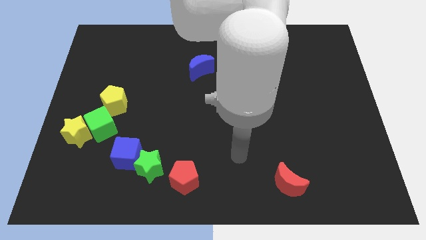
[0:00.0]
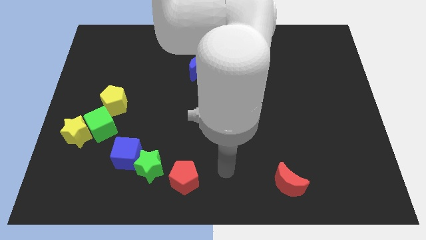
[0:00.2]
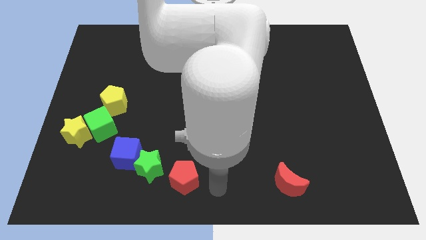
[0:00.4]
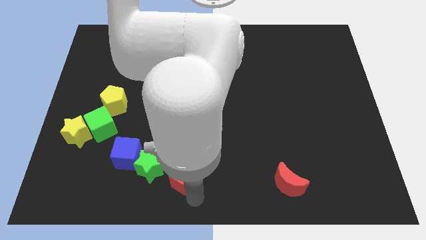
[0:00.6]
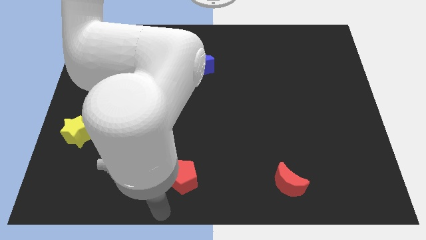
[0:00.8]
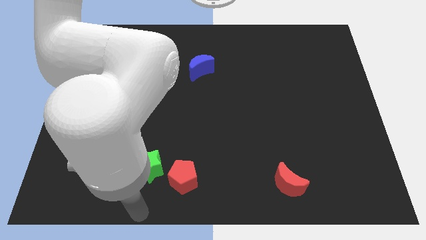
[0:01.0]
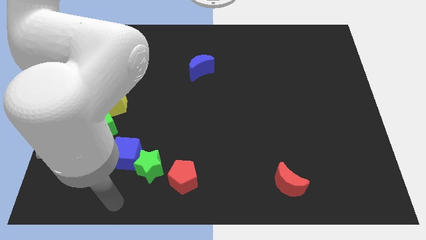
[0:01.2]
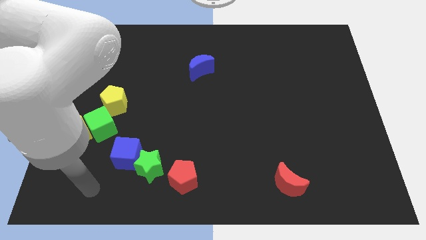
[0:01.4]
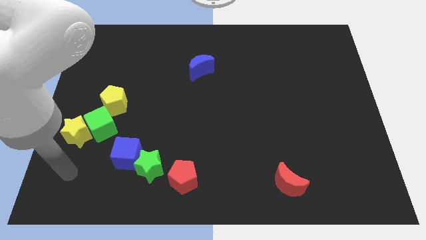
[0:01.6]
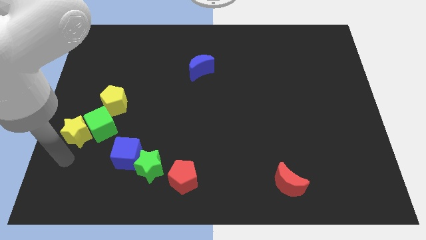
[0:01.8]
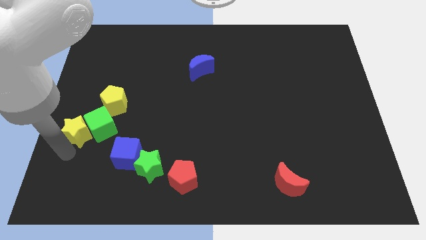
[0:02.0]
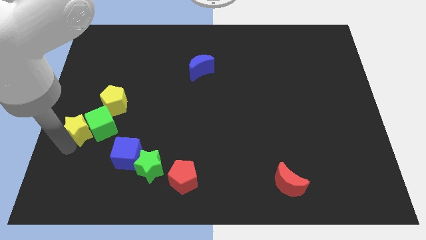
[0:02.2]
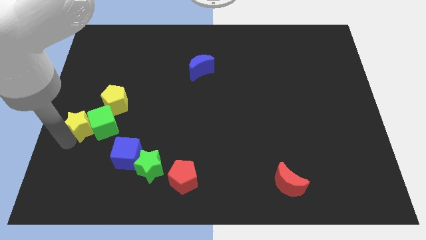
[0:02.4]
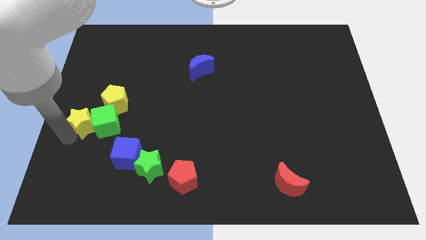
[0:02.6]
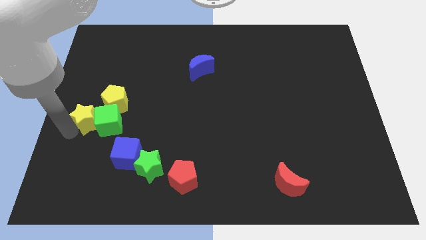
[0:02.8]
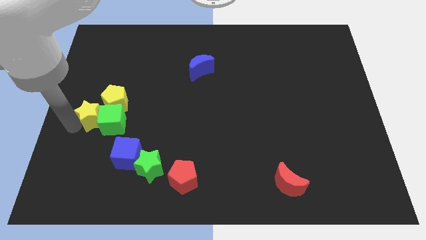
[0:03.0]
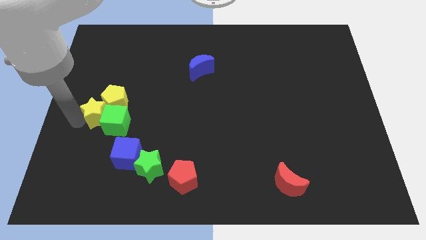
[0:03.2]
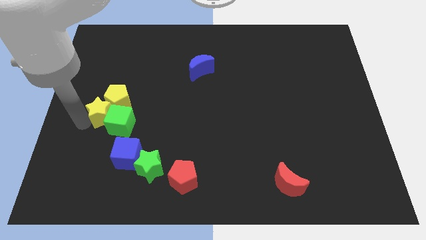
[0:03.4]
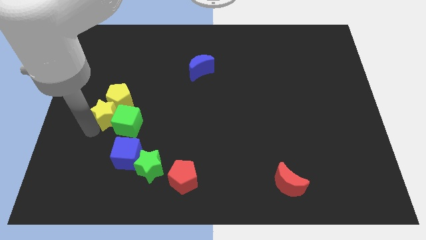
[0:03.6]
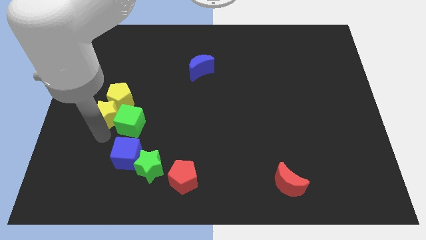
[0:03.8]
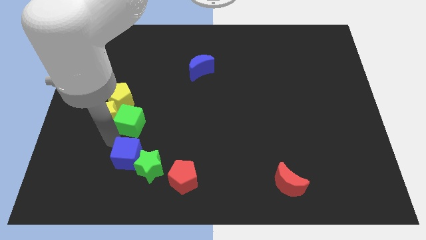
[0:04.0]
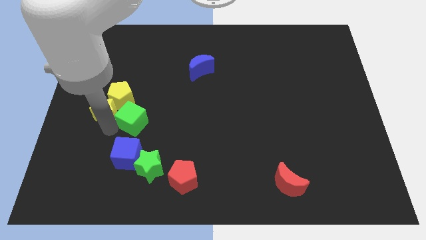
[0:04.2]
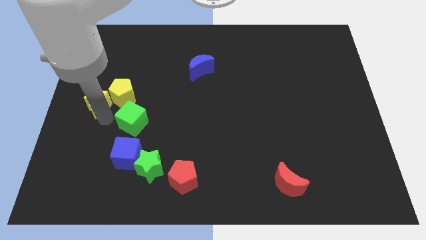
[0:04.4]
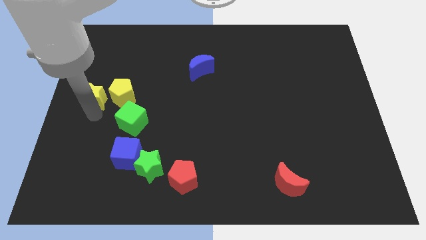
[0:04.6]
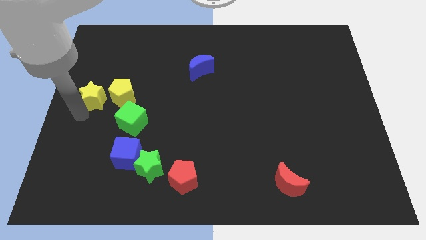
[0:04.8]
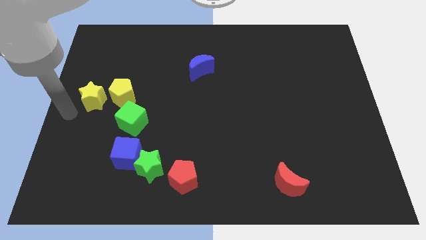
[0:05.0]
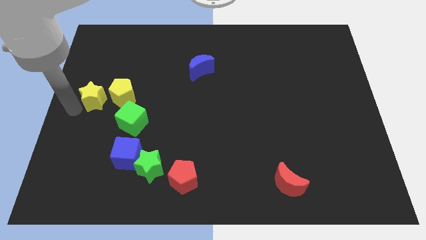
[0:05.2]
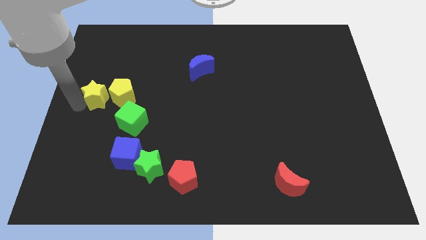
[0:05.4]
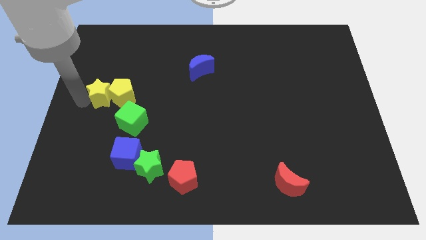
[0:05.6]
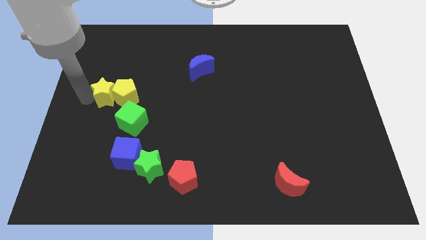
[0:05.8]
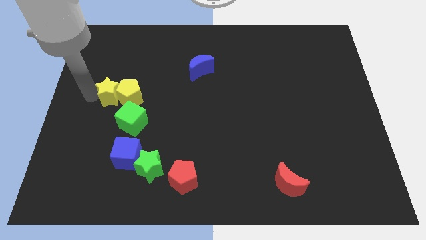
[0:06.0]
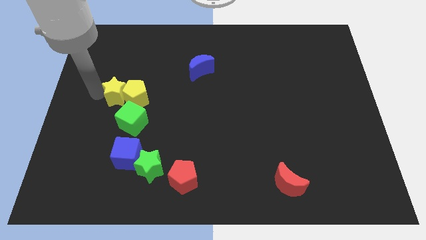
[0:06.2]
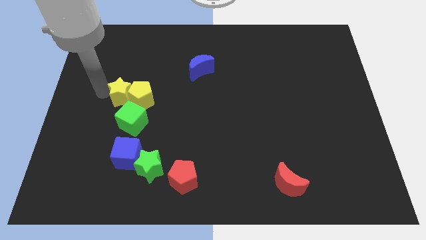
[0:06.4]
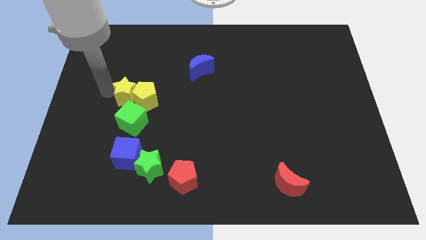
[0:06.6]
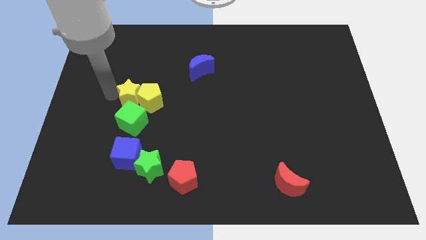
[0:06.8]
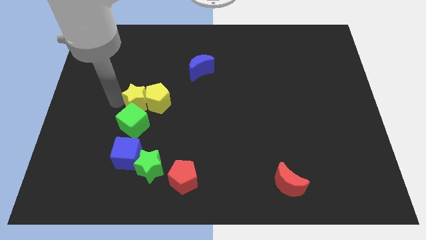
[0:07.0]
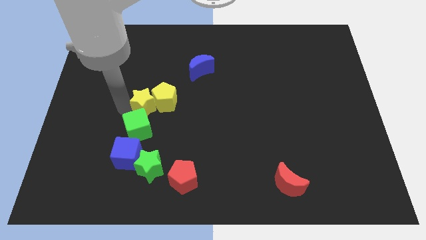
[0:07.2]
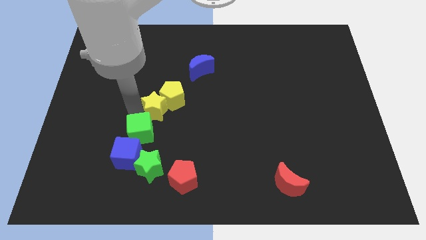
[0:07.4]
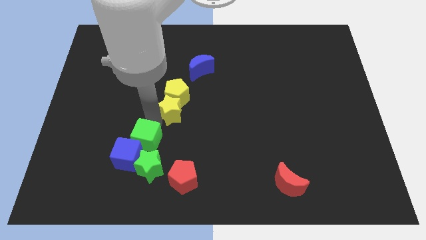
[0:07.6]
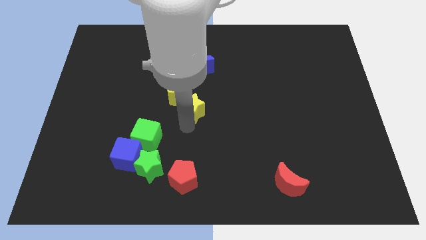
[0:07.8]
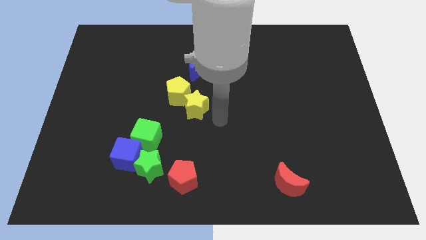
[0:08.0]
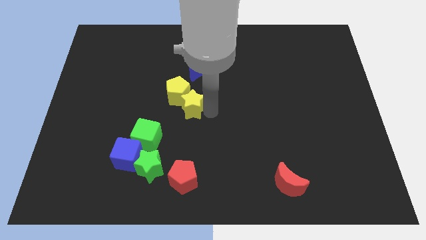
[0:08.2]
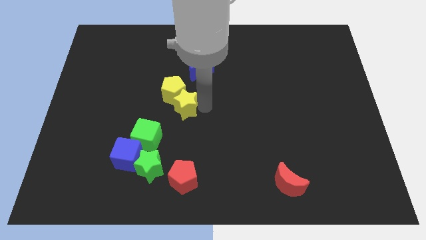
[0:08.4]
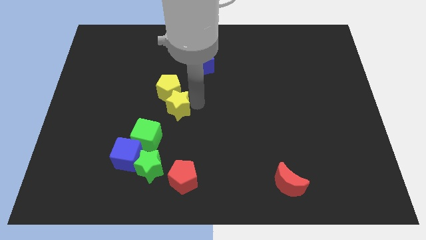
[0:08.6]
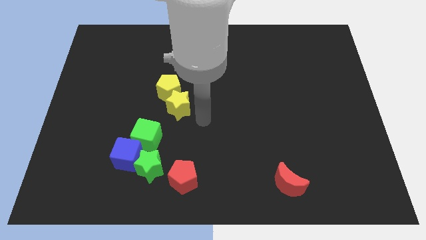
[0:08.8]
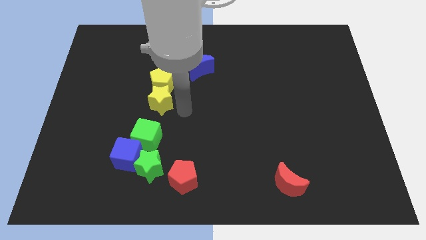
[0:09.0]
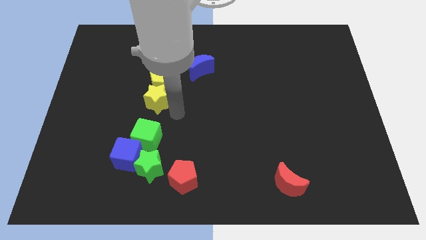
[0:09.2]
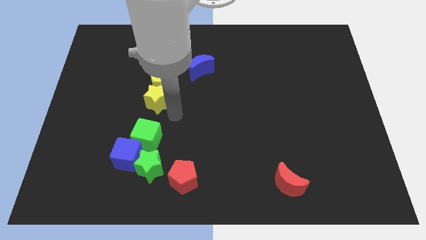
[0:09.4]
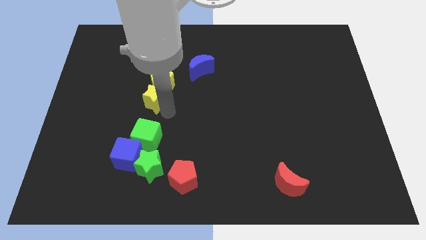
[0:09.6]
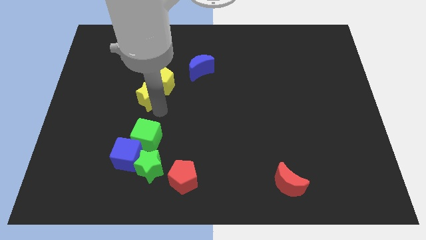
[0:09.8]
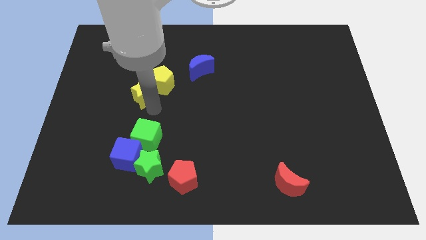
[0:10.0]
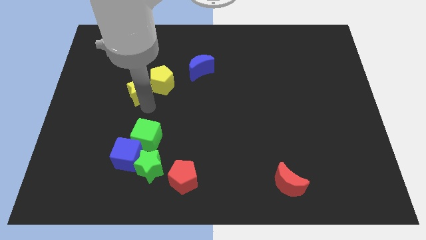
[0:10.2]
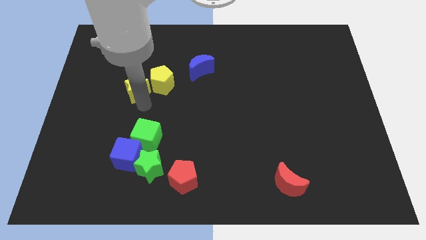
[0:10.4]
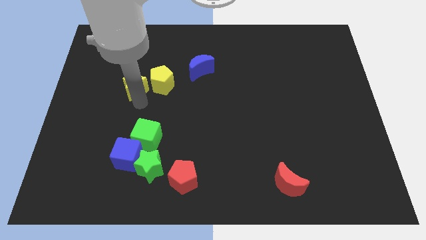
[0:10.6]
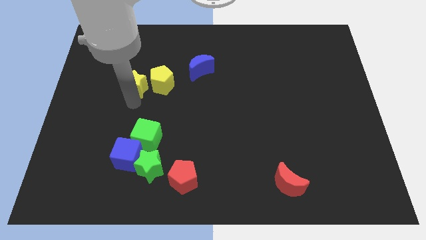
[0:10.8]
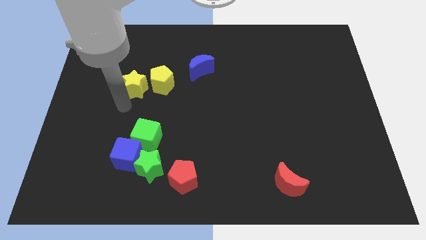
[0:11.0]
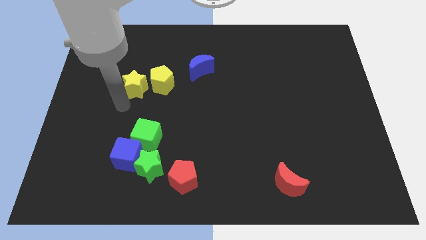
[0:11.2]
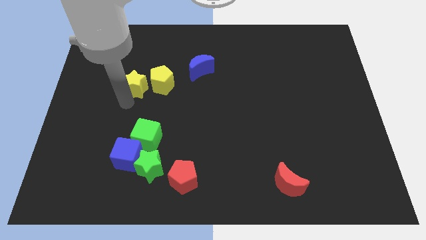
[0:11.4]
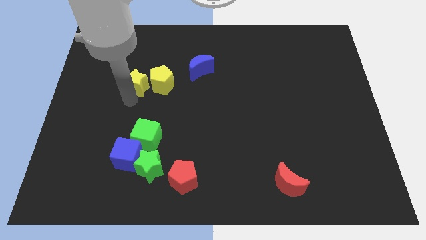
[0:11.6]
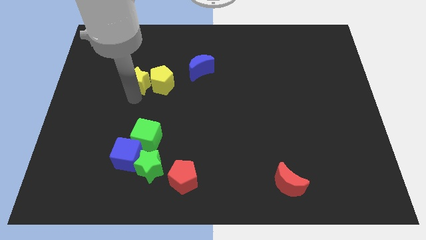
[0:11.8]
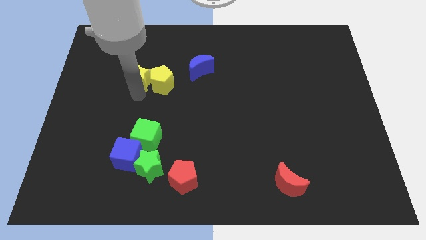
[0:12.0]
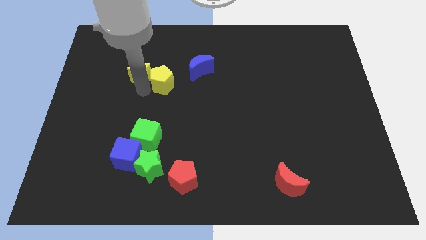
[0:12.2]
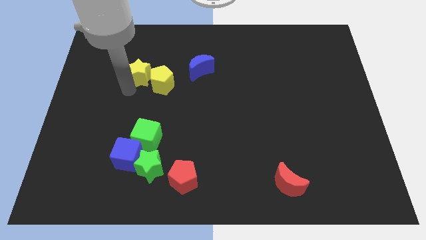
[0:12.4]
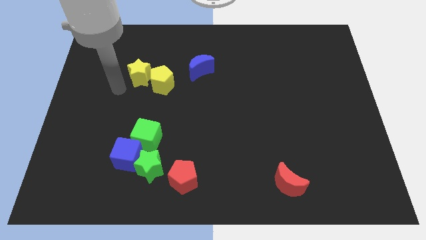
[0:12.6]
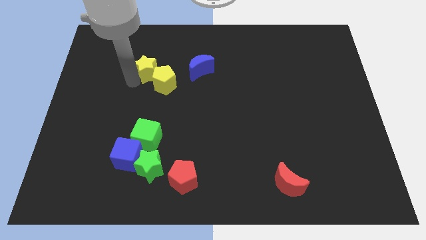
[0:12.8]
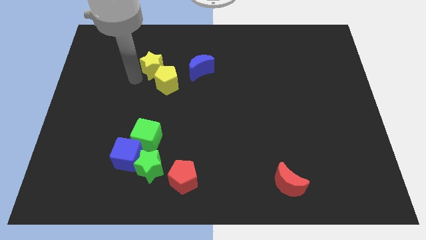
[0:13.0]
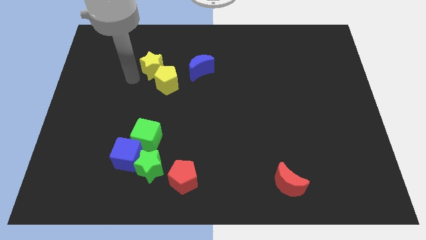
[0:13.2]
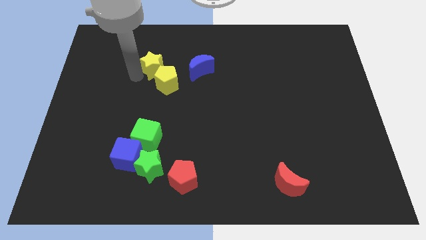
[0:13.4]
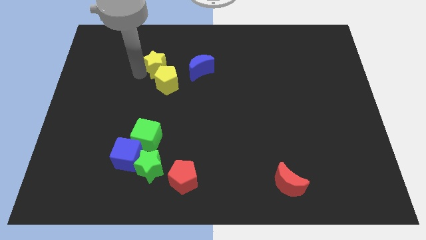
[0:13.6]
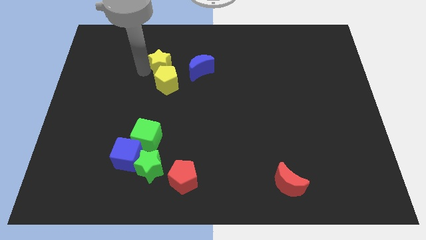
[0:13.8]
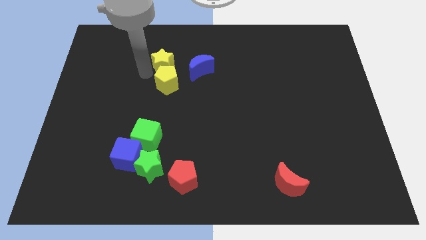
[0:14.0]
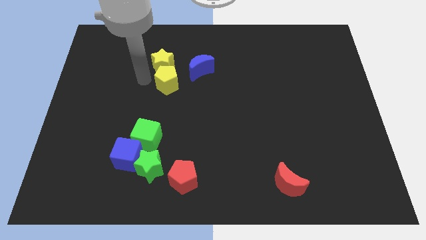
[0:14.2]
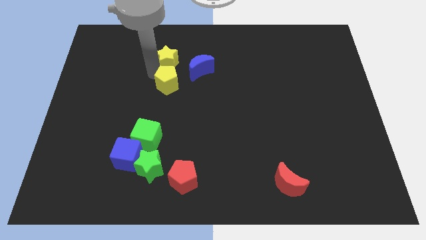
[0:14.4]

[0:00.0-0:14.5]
put the yellow star to the top left of the blue moon
